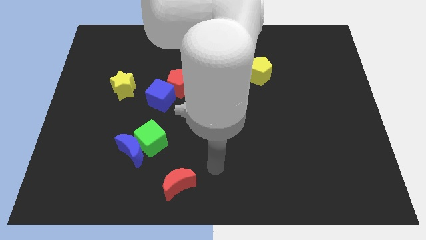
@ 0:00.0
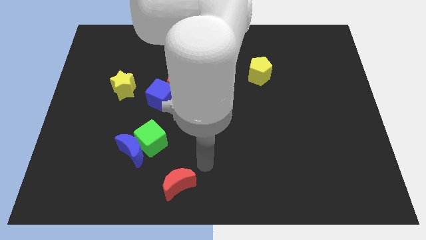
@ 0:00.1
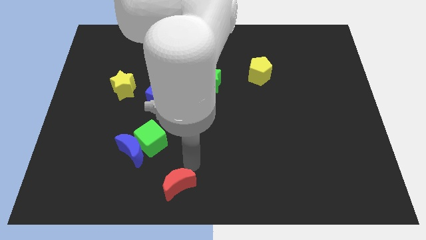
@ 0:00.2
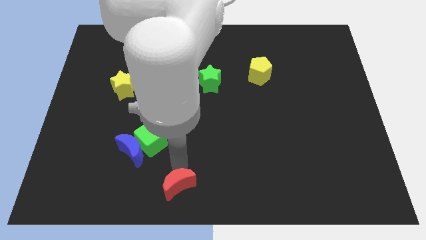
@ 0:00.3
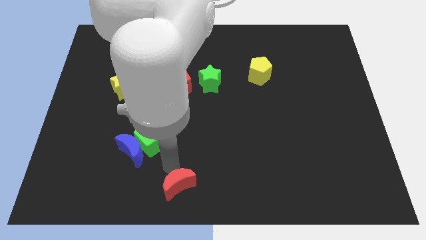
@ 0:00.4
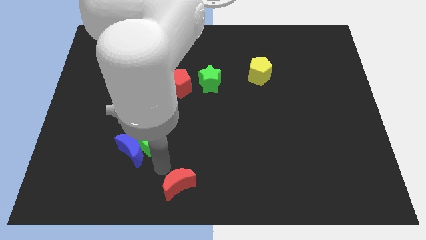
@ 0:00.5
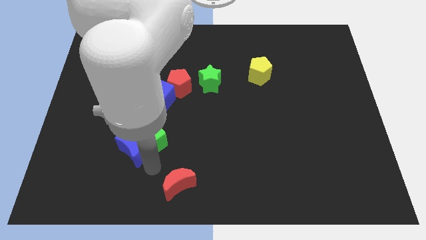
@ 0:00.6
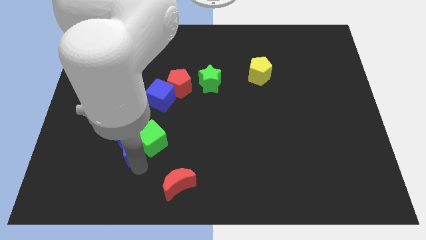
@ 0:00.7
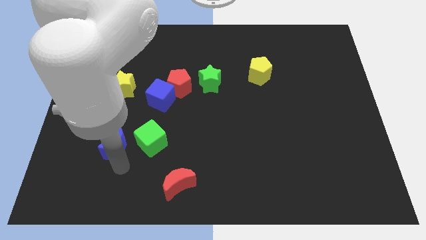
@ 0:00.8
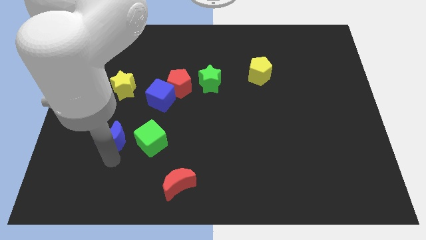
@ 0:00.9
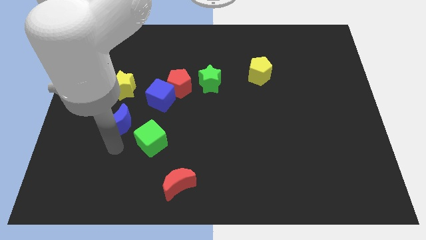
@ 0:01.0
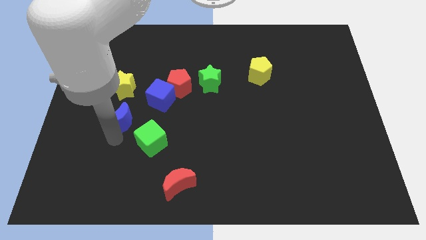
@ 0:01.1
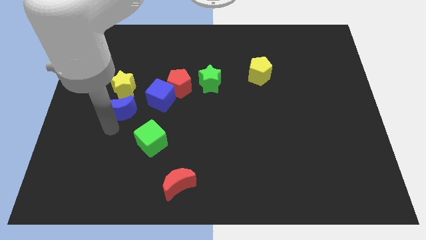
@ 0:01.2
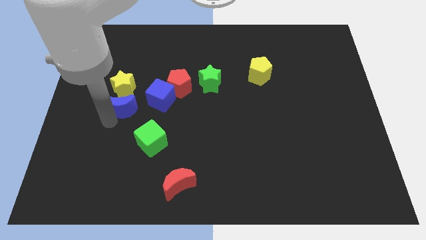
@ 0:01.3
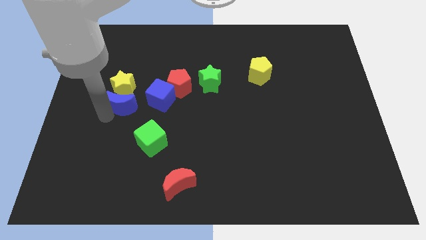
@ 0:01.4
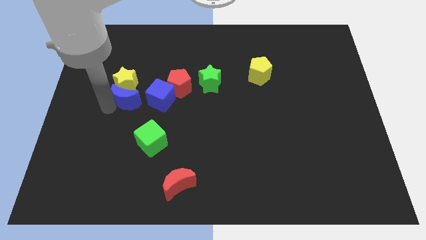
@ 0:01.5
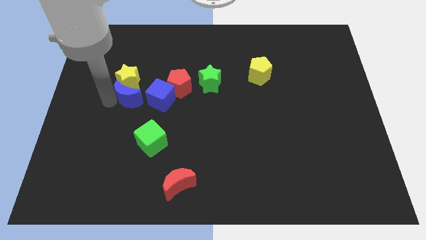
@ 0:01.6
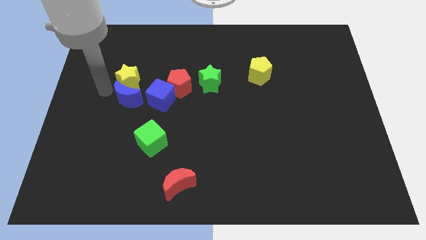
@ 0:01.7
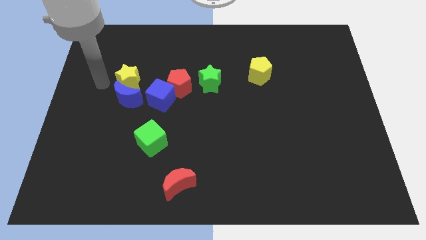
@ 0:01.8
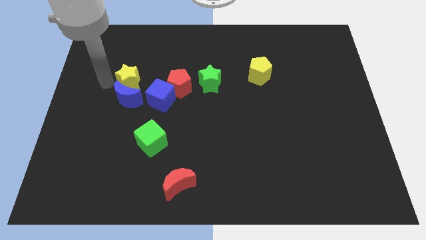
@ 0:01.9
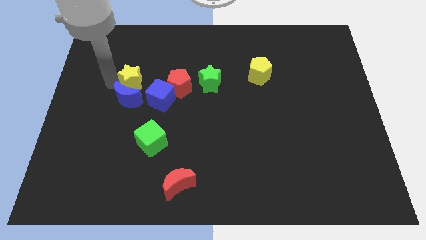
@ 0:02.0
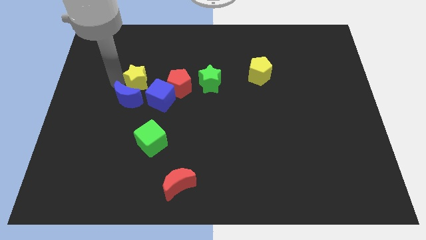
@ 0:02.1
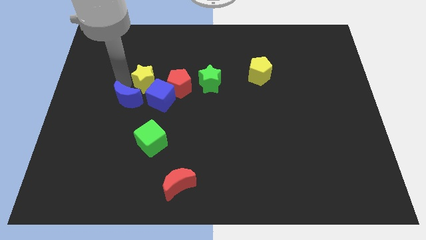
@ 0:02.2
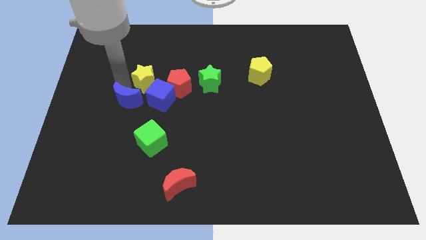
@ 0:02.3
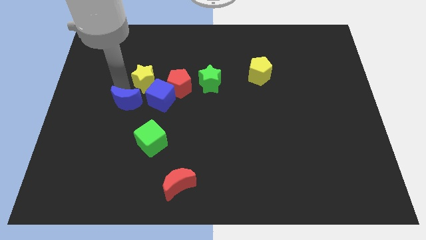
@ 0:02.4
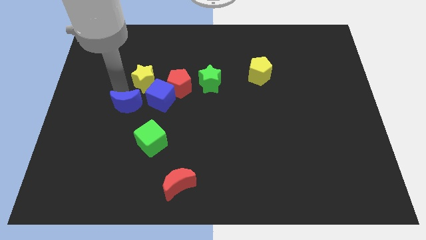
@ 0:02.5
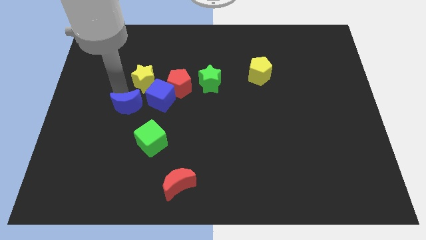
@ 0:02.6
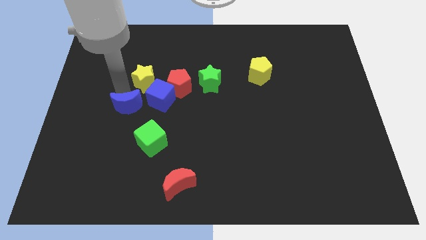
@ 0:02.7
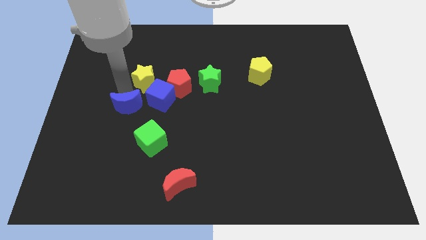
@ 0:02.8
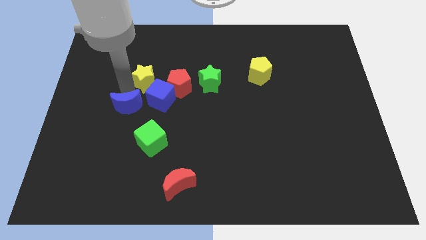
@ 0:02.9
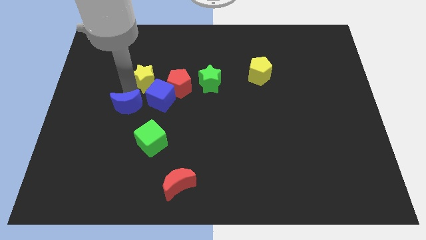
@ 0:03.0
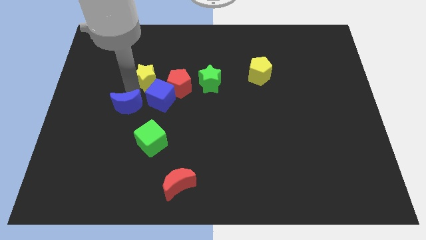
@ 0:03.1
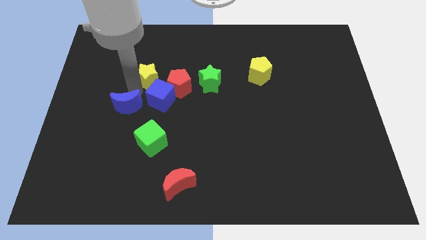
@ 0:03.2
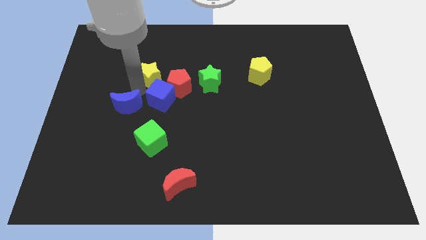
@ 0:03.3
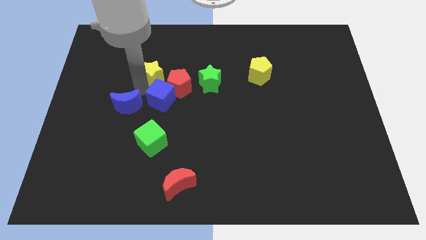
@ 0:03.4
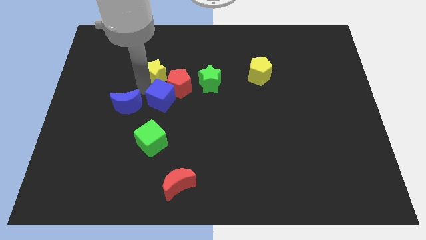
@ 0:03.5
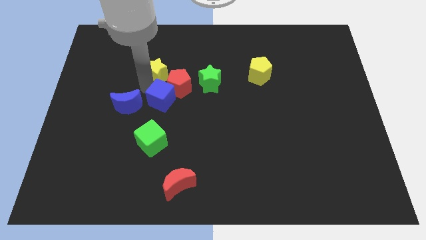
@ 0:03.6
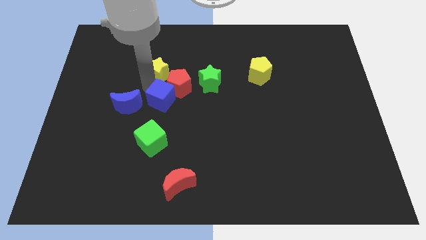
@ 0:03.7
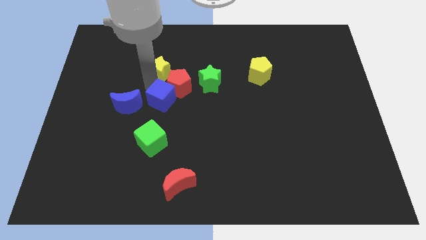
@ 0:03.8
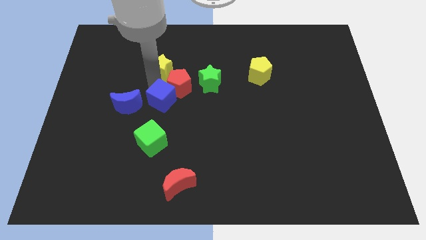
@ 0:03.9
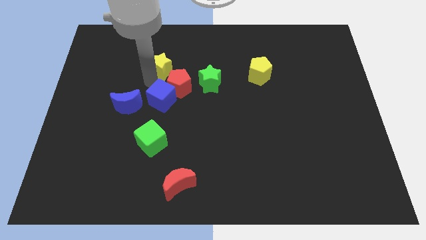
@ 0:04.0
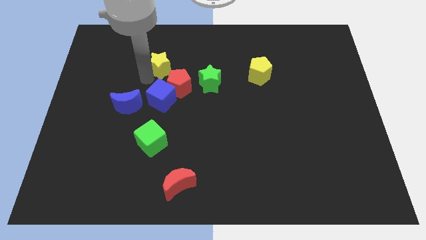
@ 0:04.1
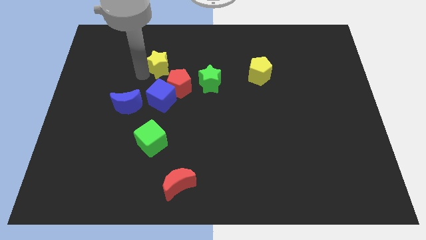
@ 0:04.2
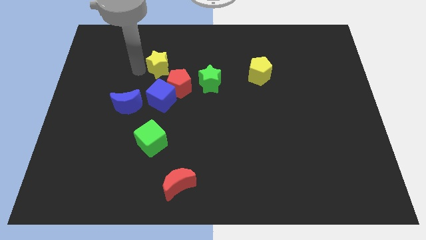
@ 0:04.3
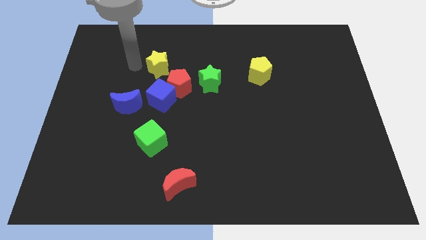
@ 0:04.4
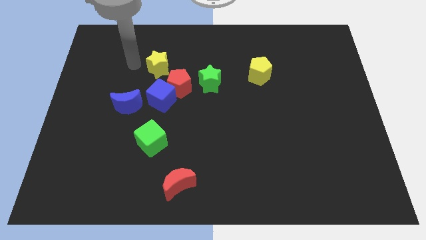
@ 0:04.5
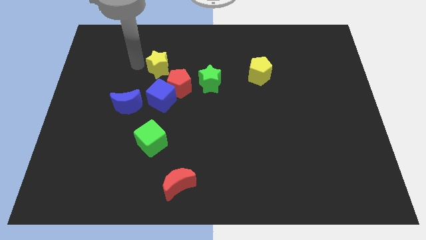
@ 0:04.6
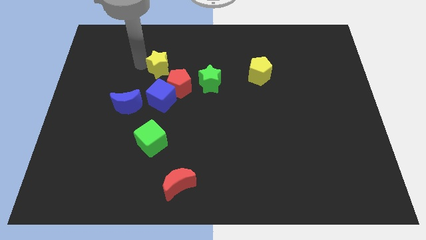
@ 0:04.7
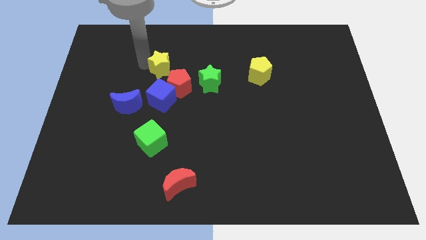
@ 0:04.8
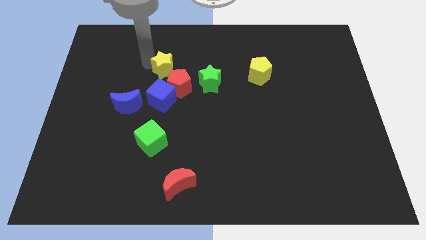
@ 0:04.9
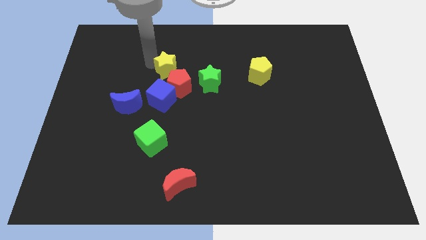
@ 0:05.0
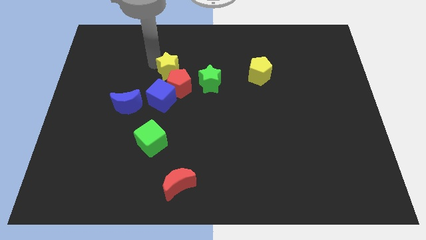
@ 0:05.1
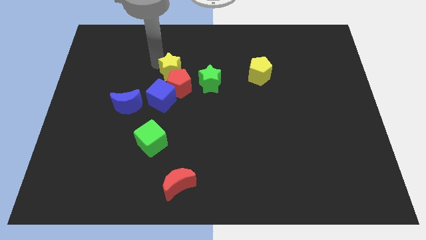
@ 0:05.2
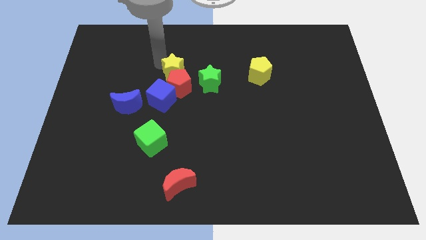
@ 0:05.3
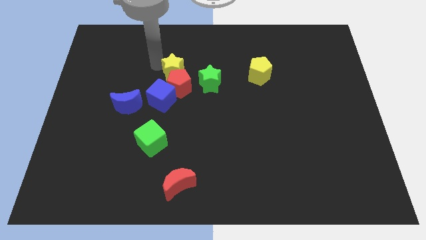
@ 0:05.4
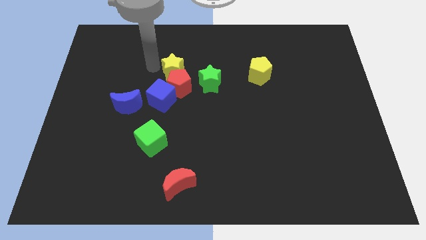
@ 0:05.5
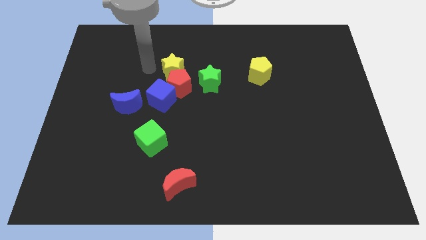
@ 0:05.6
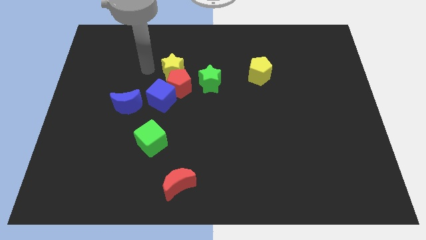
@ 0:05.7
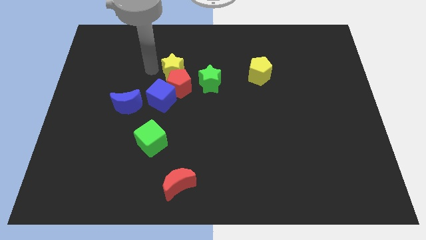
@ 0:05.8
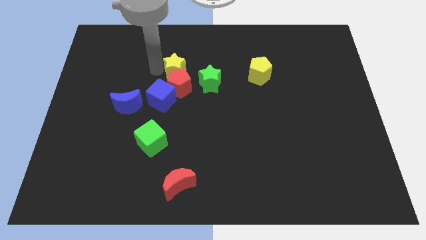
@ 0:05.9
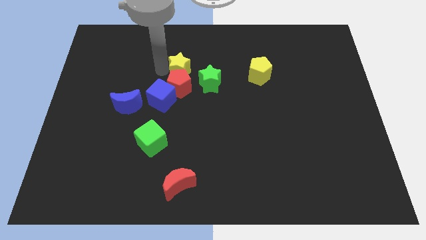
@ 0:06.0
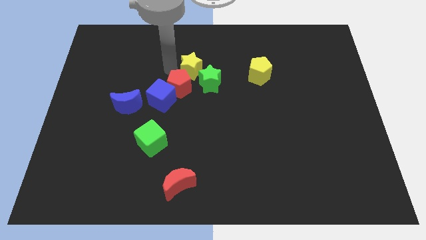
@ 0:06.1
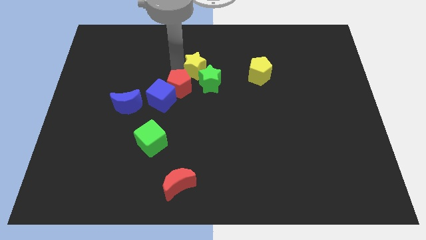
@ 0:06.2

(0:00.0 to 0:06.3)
put the yellow star next to the green star

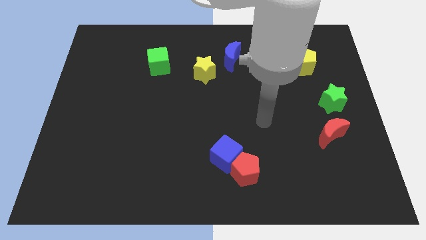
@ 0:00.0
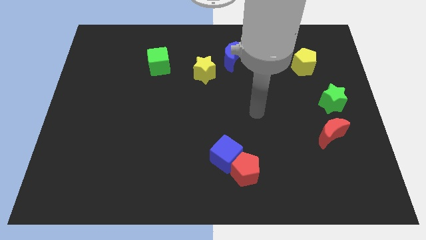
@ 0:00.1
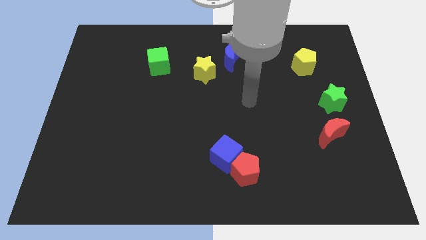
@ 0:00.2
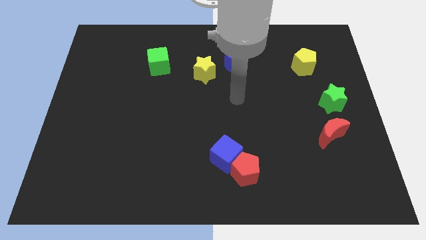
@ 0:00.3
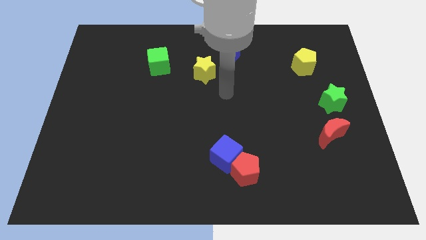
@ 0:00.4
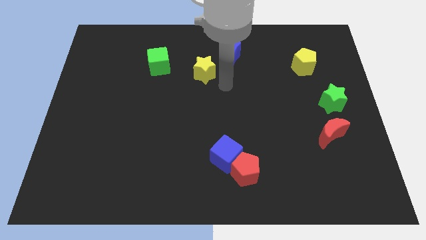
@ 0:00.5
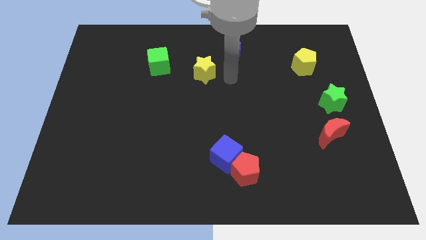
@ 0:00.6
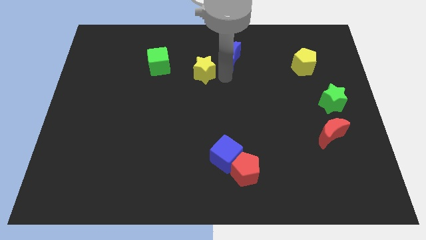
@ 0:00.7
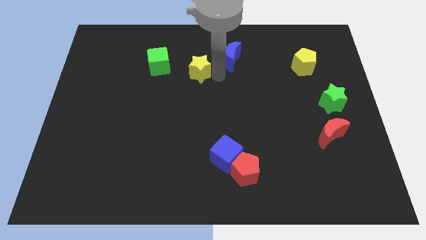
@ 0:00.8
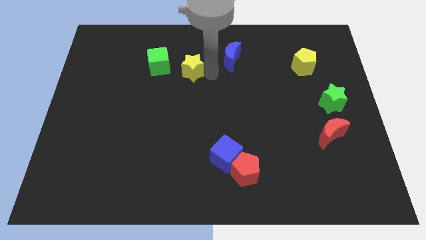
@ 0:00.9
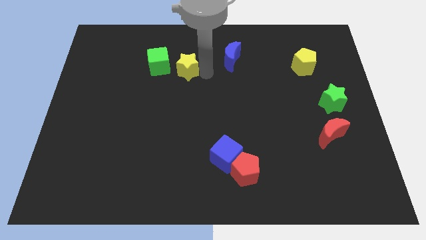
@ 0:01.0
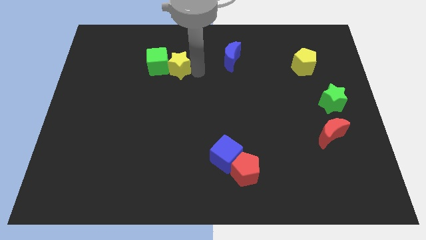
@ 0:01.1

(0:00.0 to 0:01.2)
put the yellow star next to the green cube
